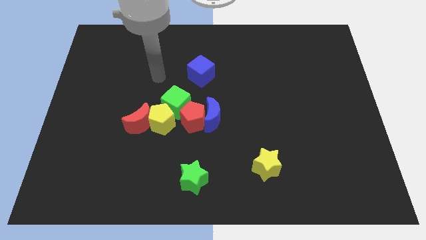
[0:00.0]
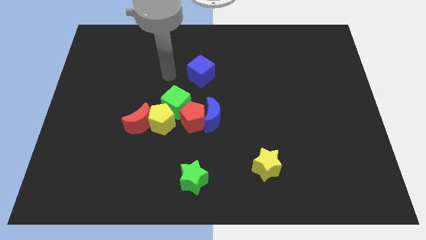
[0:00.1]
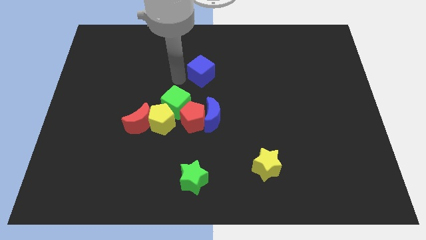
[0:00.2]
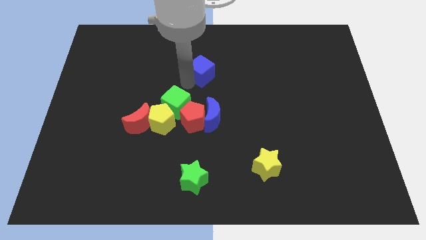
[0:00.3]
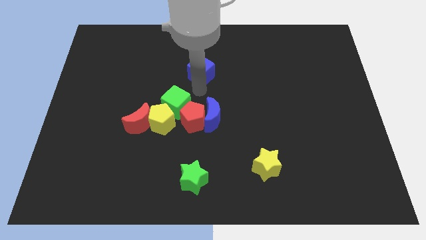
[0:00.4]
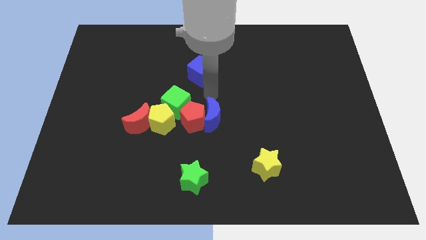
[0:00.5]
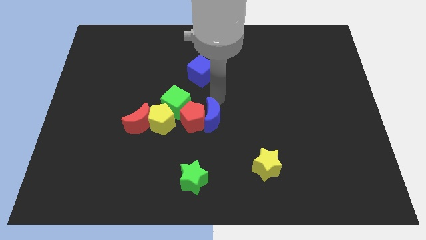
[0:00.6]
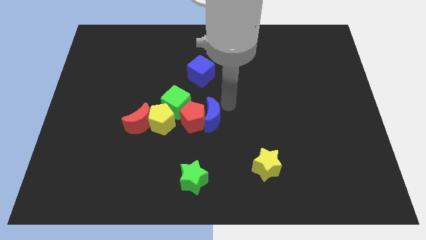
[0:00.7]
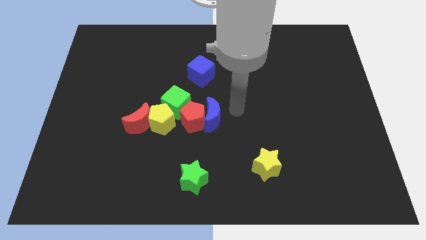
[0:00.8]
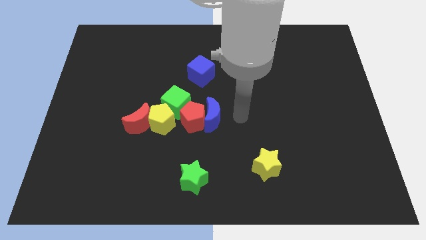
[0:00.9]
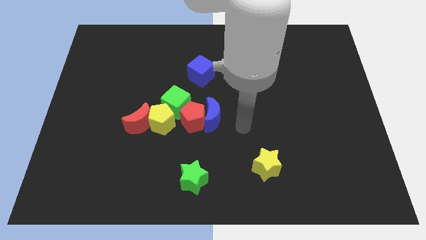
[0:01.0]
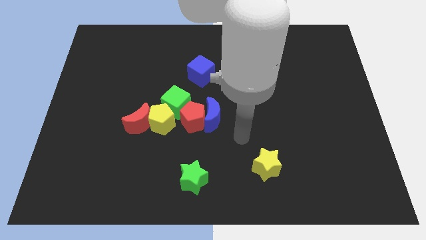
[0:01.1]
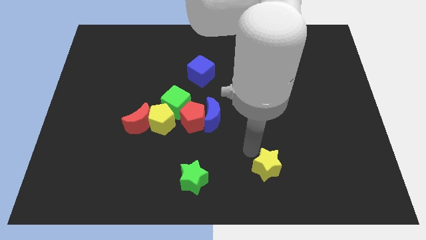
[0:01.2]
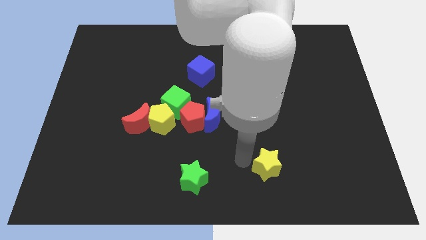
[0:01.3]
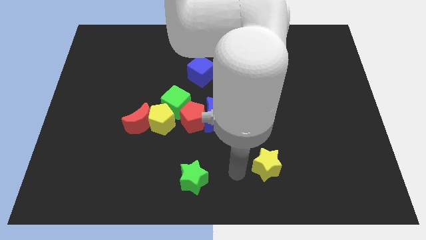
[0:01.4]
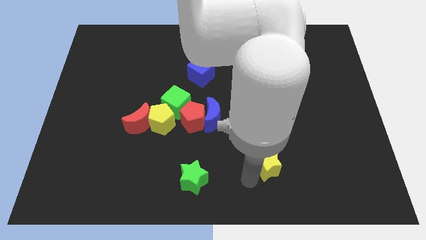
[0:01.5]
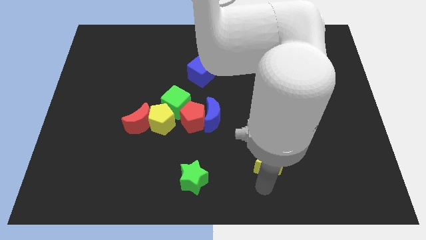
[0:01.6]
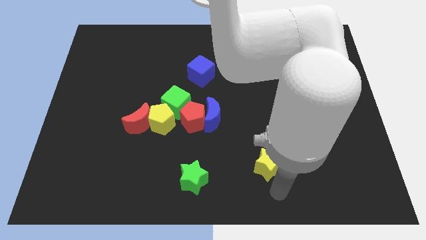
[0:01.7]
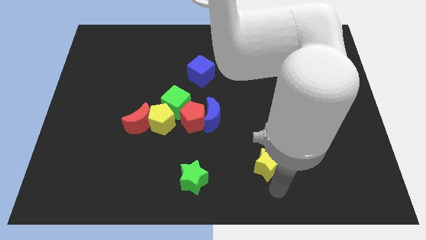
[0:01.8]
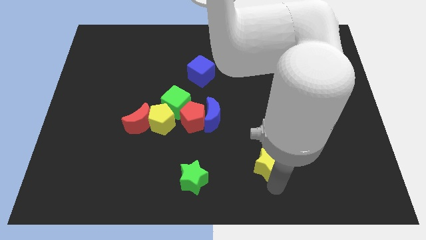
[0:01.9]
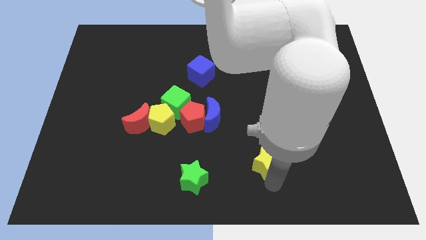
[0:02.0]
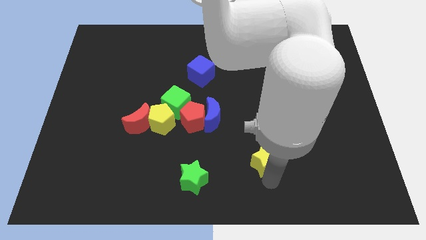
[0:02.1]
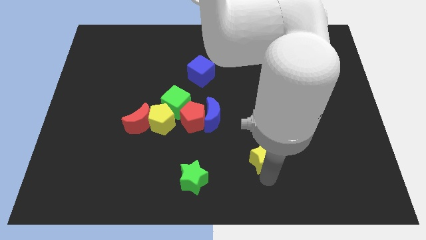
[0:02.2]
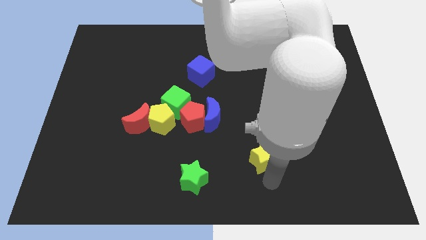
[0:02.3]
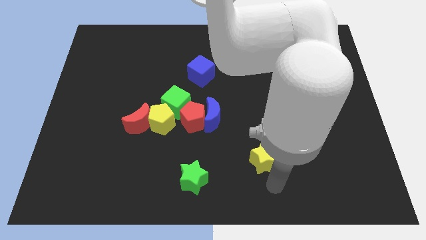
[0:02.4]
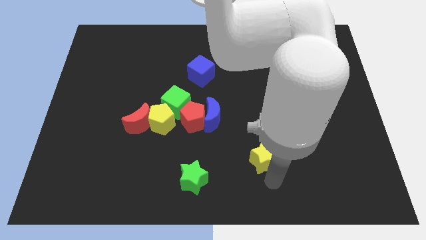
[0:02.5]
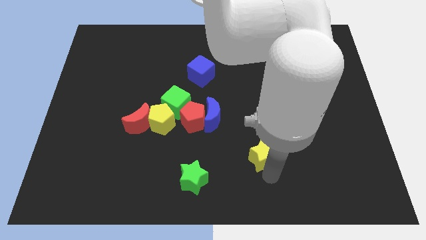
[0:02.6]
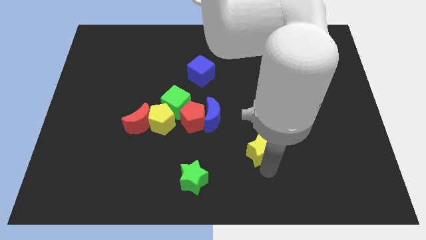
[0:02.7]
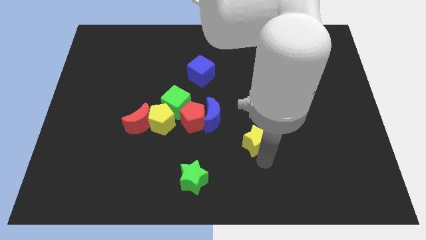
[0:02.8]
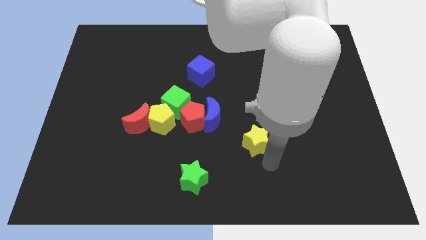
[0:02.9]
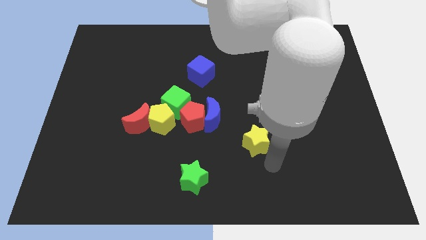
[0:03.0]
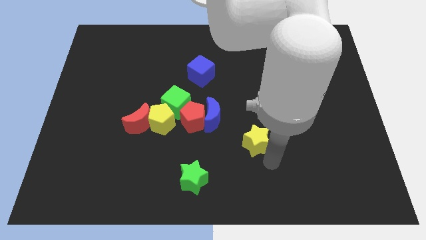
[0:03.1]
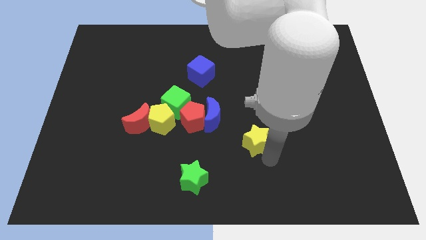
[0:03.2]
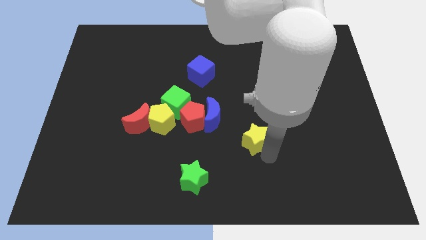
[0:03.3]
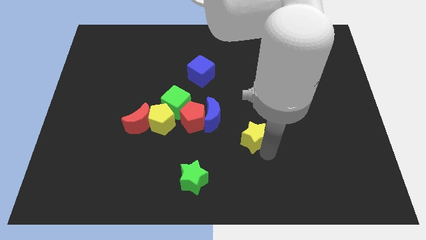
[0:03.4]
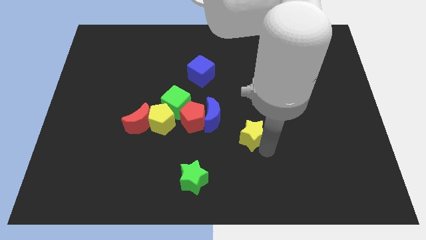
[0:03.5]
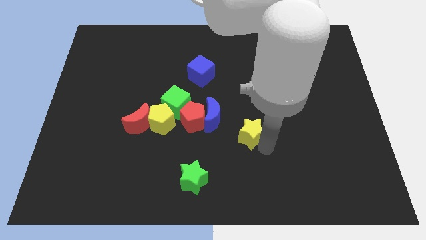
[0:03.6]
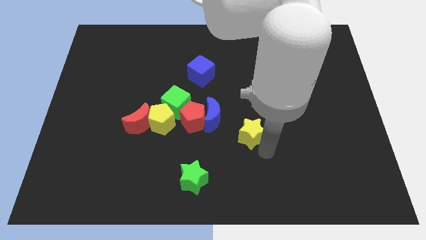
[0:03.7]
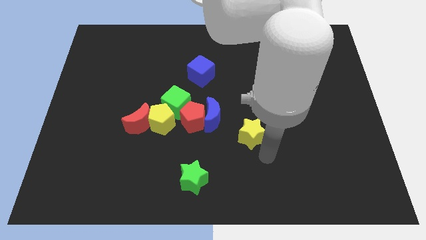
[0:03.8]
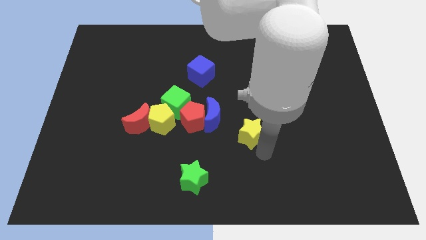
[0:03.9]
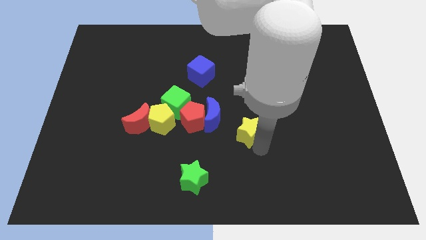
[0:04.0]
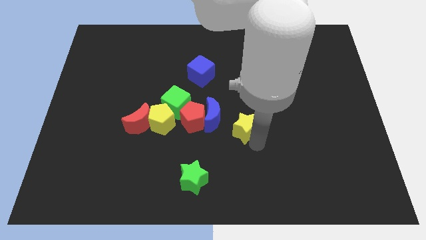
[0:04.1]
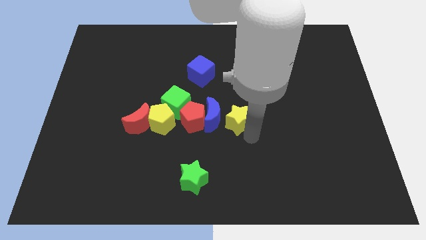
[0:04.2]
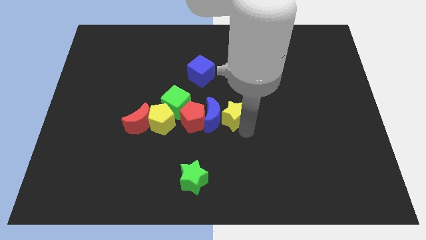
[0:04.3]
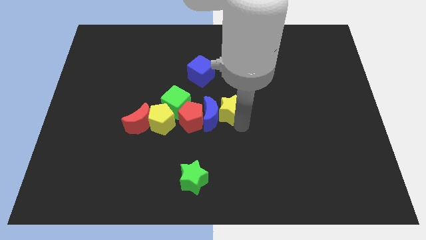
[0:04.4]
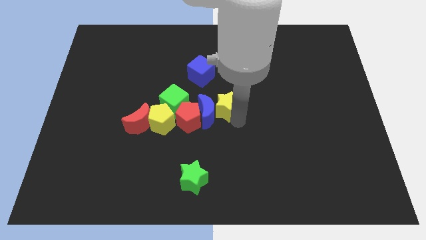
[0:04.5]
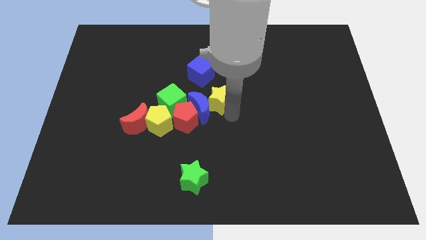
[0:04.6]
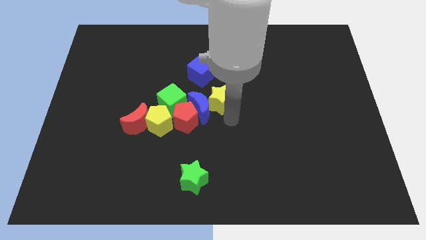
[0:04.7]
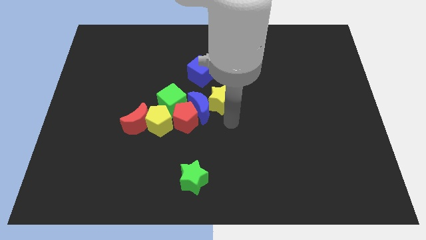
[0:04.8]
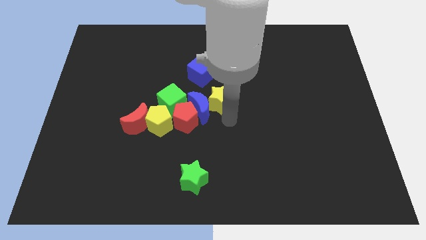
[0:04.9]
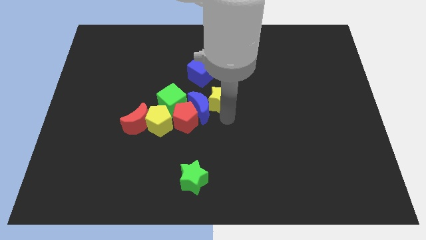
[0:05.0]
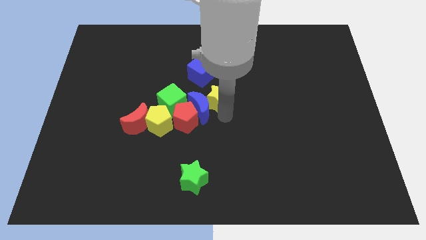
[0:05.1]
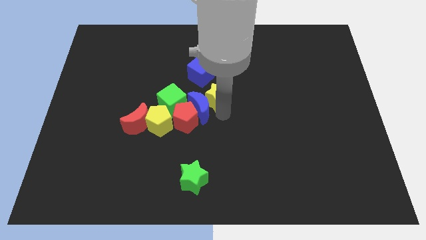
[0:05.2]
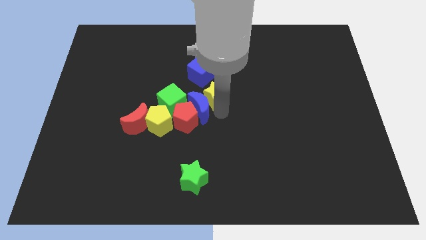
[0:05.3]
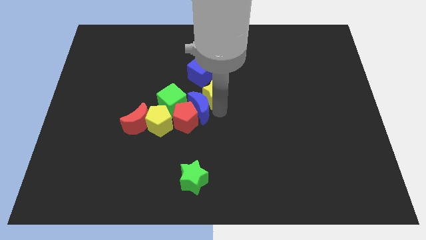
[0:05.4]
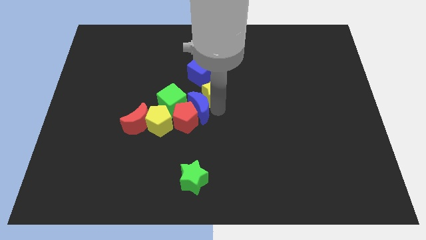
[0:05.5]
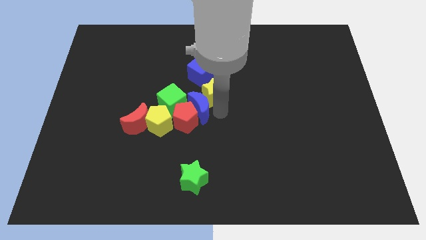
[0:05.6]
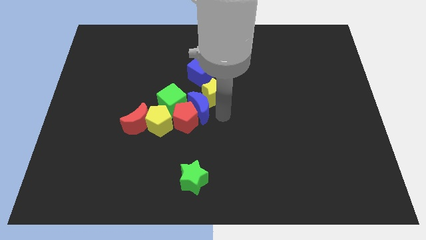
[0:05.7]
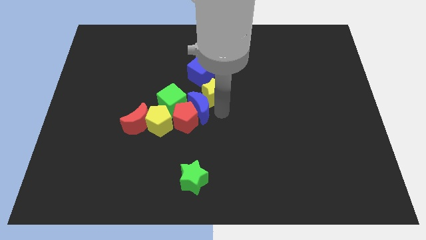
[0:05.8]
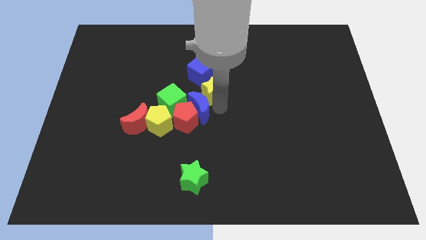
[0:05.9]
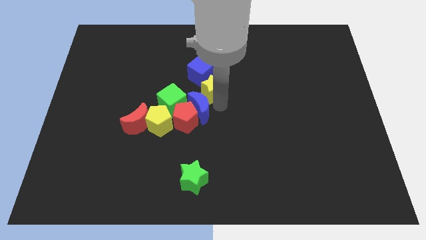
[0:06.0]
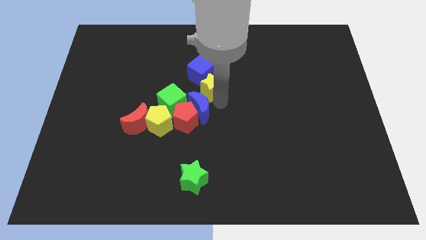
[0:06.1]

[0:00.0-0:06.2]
push the yellow star close to the blue cube

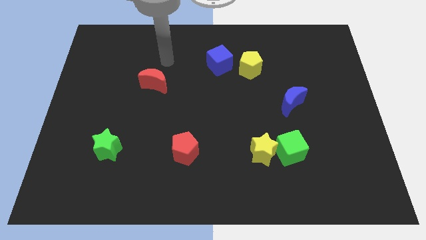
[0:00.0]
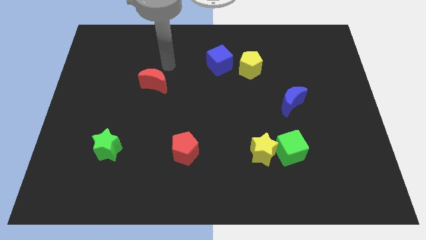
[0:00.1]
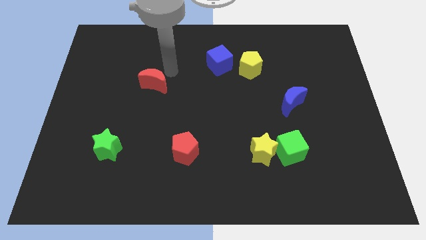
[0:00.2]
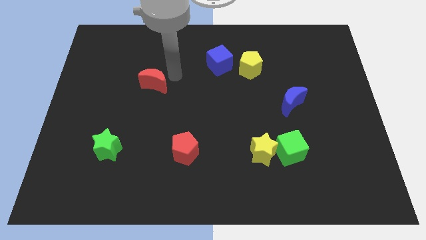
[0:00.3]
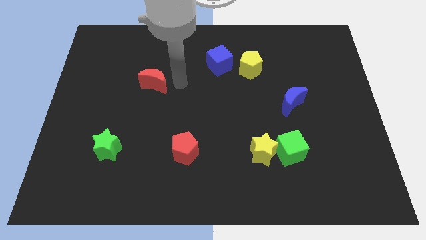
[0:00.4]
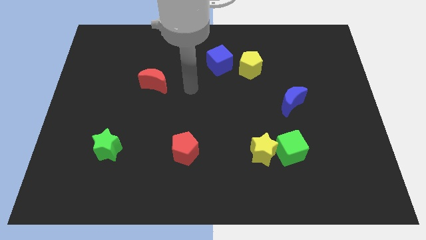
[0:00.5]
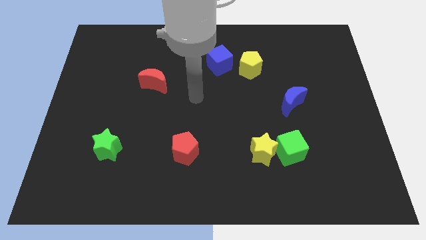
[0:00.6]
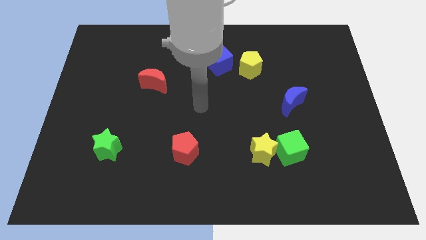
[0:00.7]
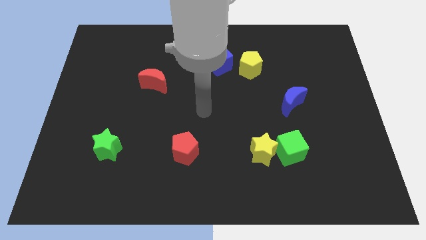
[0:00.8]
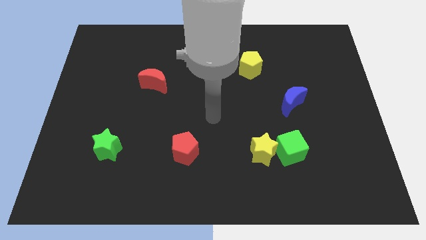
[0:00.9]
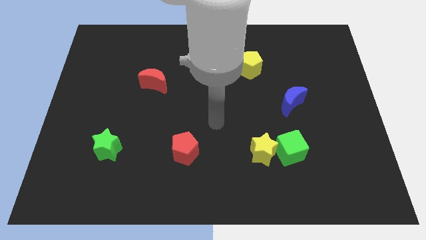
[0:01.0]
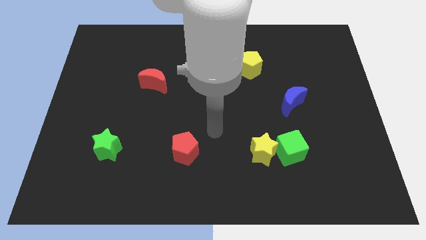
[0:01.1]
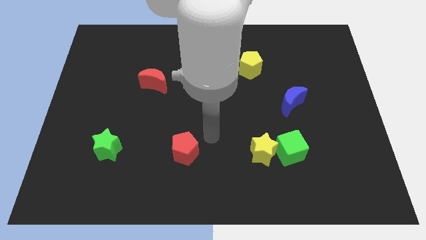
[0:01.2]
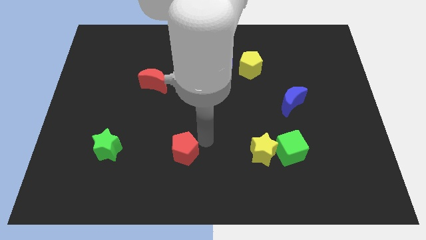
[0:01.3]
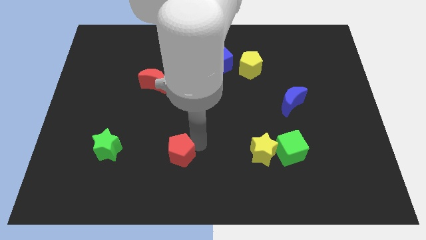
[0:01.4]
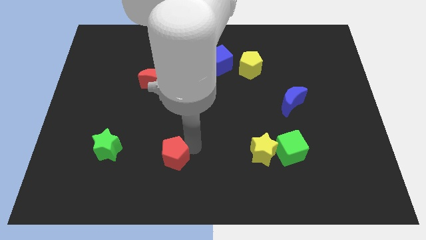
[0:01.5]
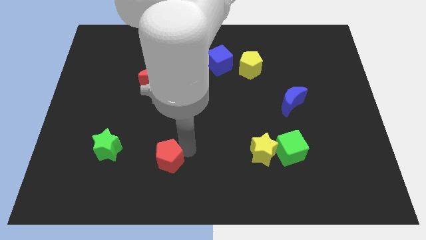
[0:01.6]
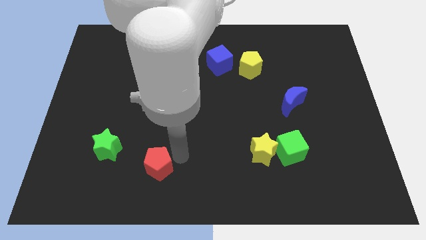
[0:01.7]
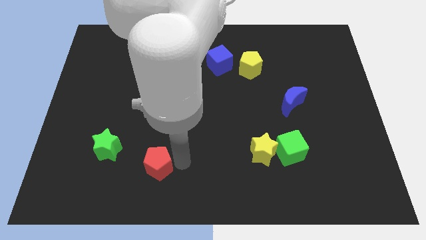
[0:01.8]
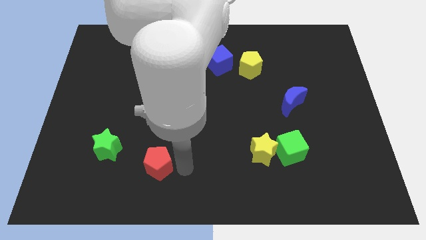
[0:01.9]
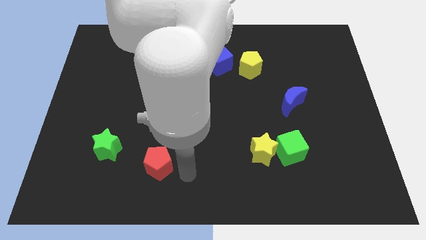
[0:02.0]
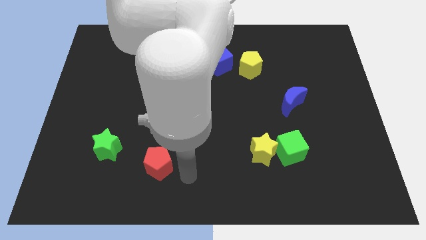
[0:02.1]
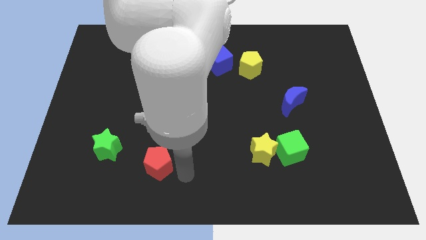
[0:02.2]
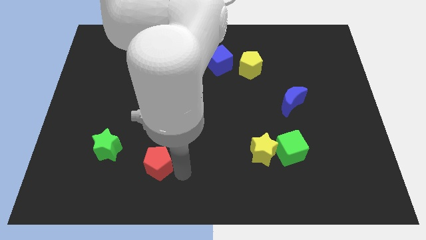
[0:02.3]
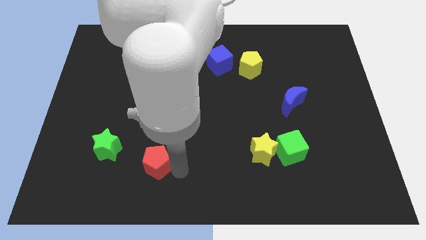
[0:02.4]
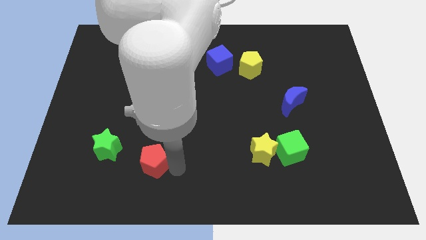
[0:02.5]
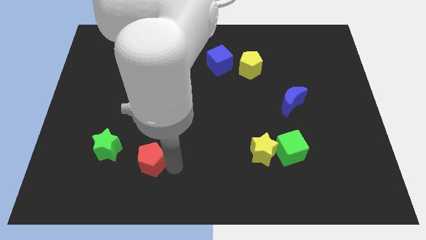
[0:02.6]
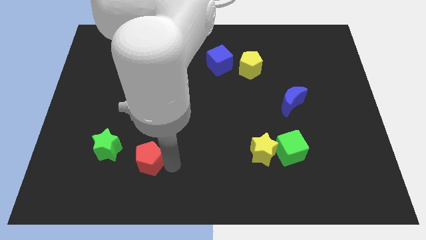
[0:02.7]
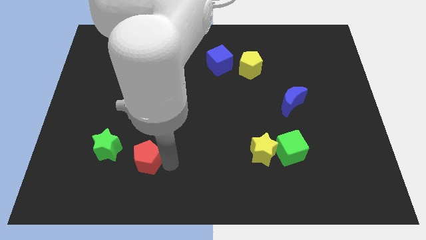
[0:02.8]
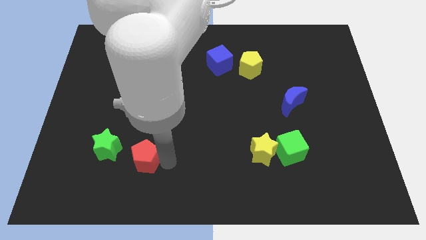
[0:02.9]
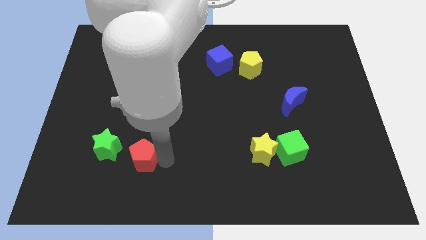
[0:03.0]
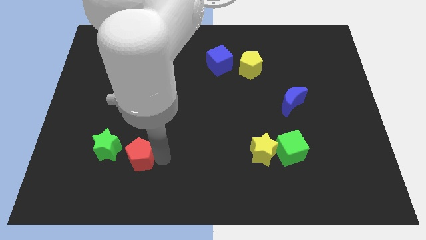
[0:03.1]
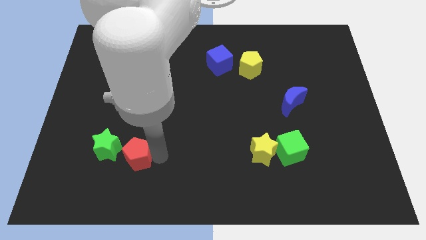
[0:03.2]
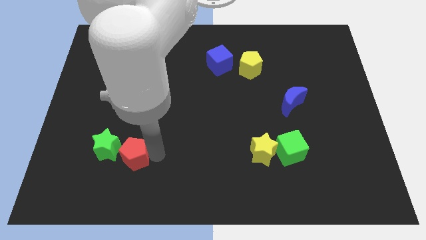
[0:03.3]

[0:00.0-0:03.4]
move the red pentagon next to the green star
